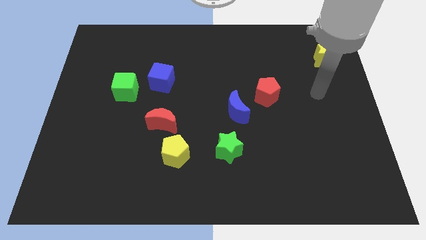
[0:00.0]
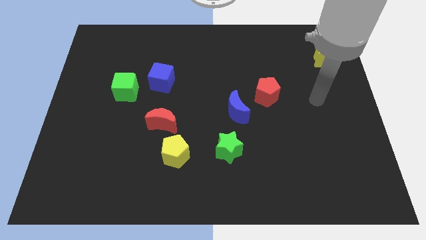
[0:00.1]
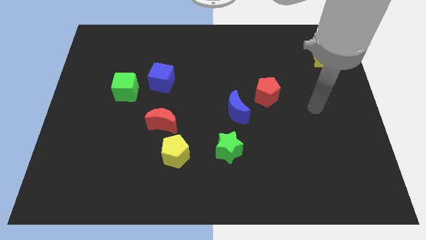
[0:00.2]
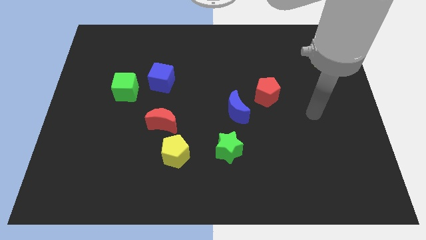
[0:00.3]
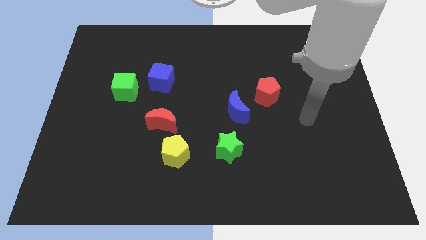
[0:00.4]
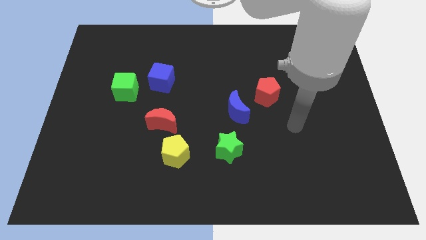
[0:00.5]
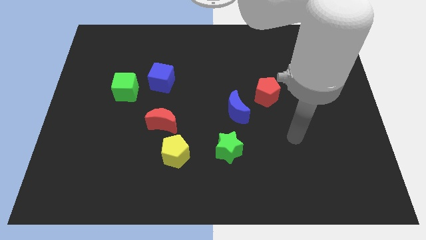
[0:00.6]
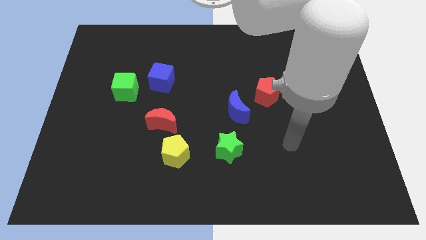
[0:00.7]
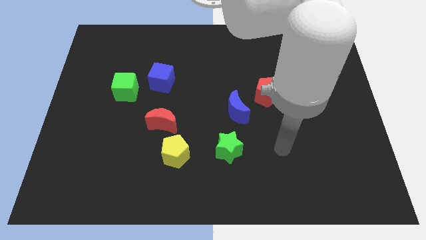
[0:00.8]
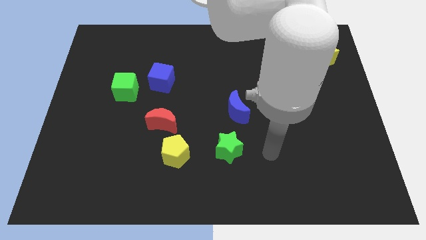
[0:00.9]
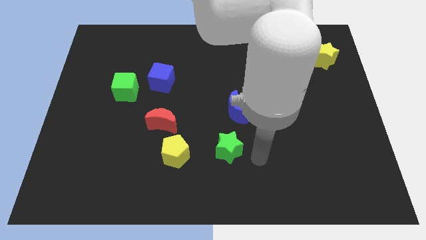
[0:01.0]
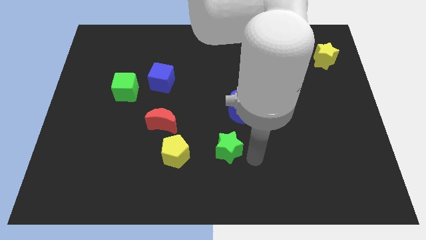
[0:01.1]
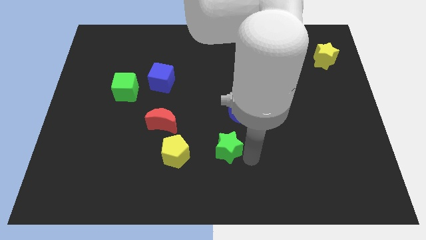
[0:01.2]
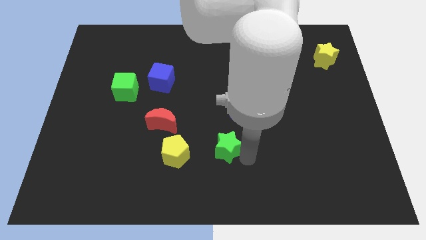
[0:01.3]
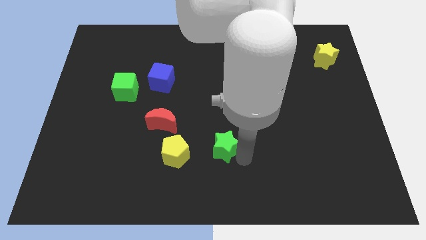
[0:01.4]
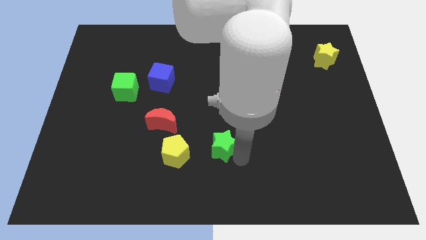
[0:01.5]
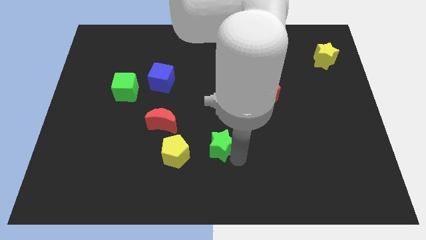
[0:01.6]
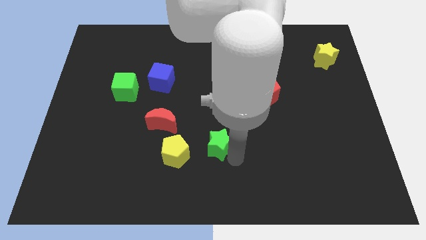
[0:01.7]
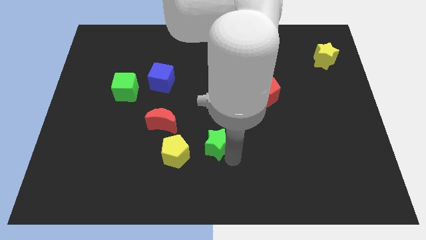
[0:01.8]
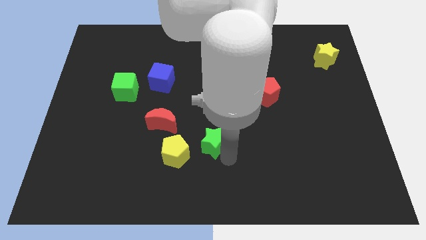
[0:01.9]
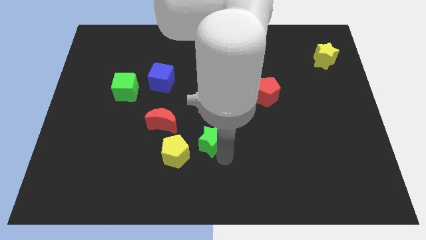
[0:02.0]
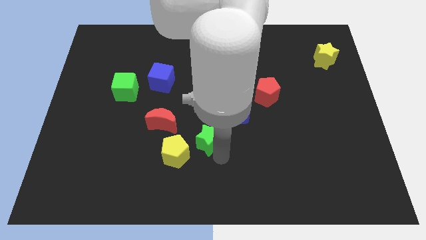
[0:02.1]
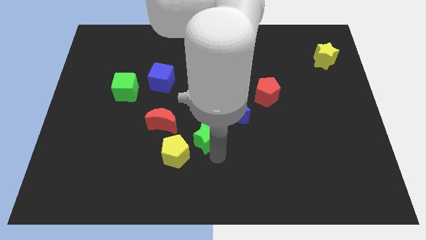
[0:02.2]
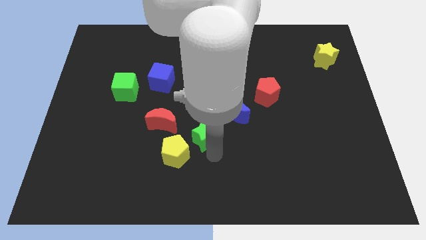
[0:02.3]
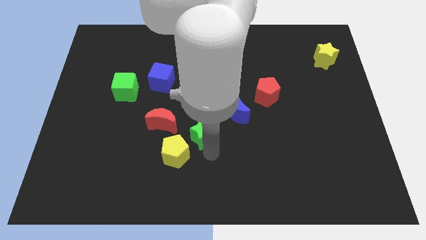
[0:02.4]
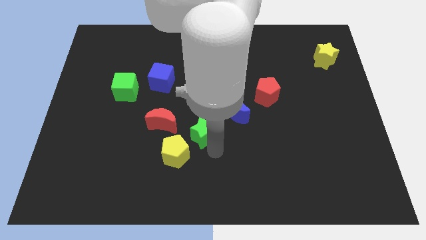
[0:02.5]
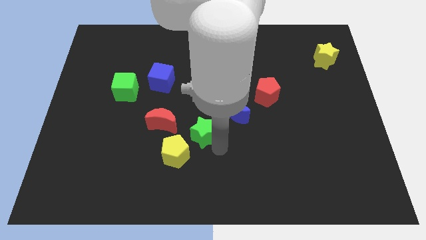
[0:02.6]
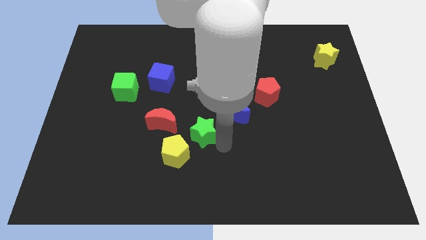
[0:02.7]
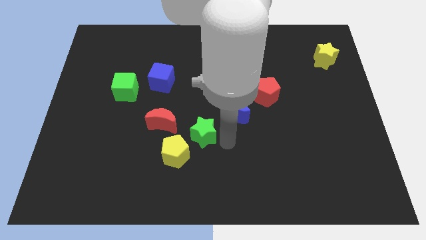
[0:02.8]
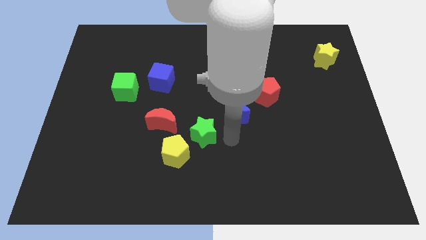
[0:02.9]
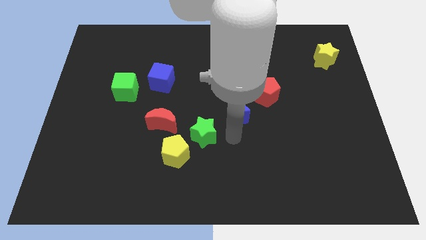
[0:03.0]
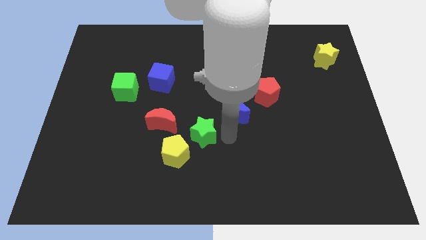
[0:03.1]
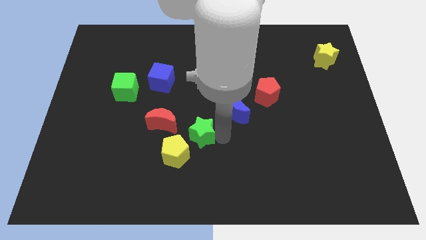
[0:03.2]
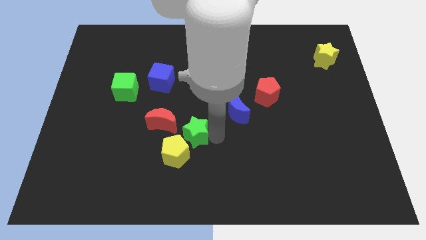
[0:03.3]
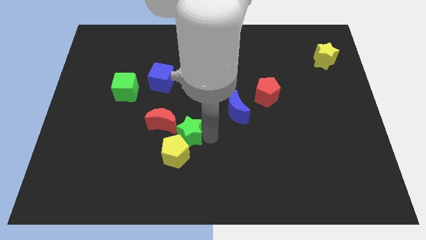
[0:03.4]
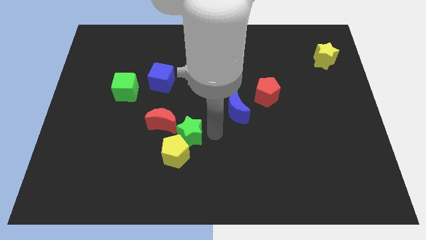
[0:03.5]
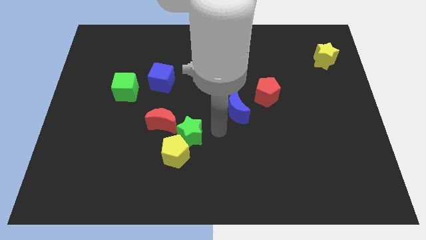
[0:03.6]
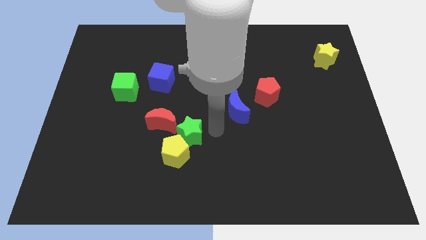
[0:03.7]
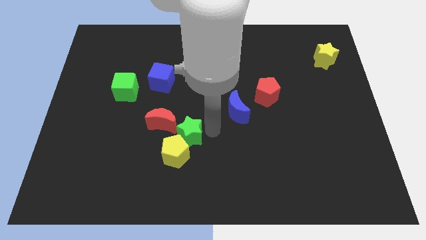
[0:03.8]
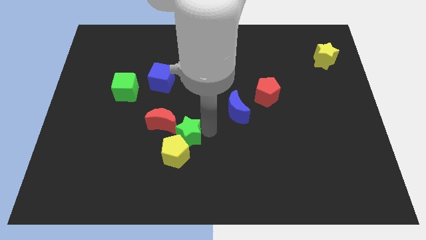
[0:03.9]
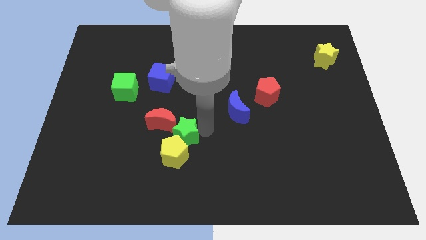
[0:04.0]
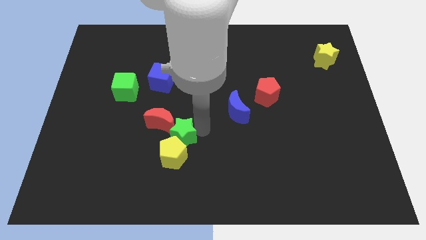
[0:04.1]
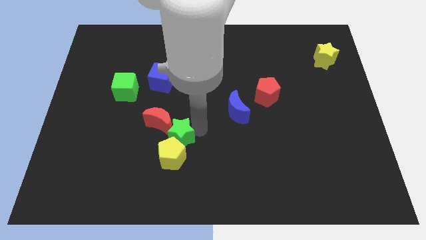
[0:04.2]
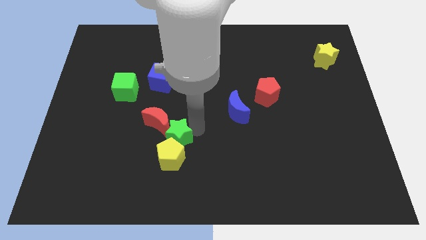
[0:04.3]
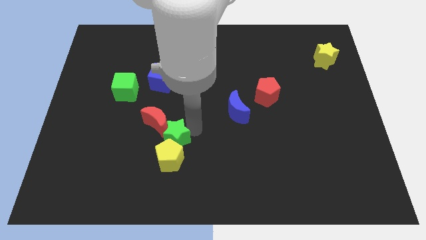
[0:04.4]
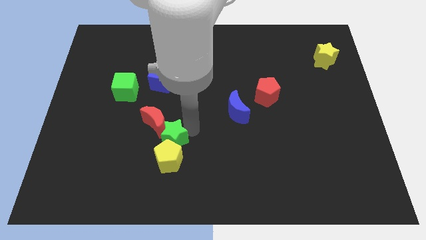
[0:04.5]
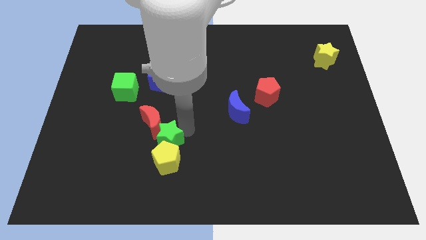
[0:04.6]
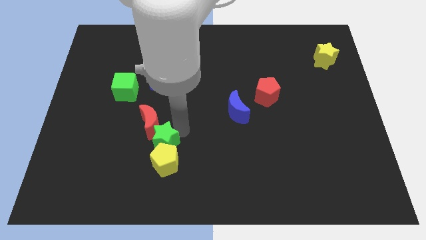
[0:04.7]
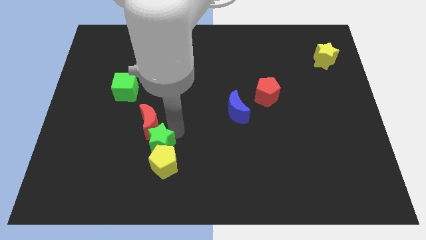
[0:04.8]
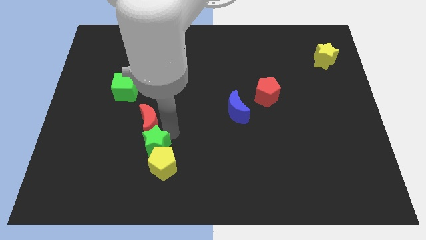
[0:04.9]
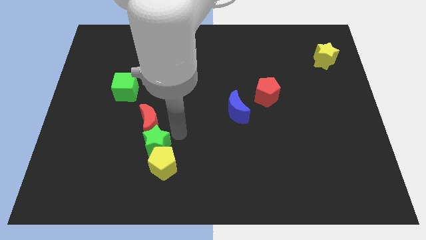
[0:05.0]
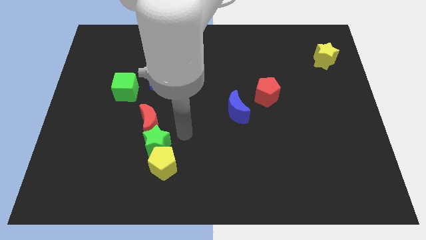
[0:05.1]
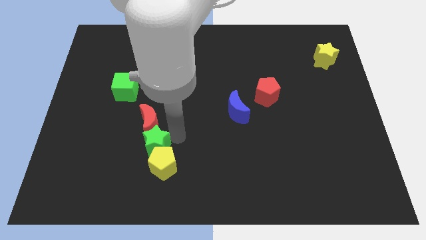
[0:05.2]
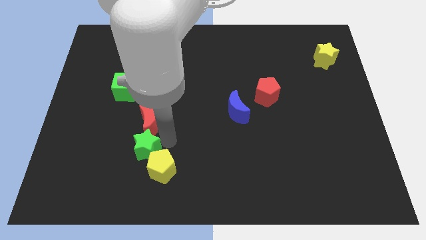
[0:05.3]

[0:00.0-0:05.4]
move the green star to the left of the yellow pentagon

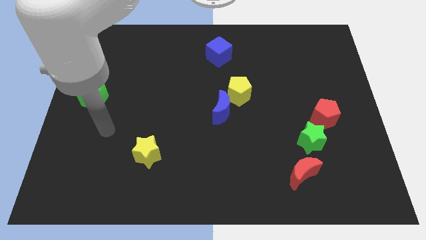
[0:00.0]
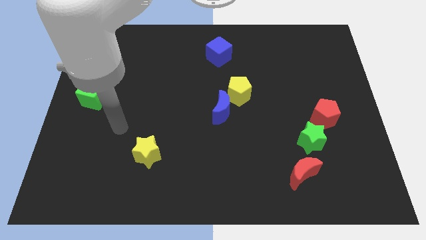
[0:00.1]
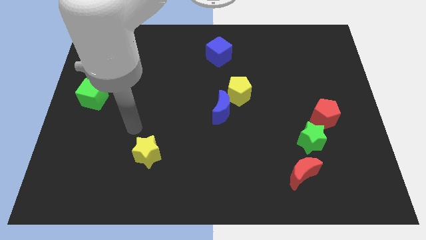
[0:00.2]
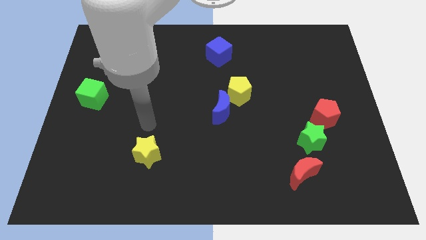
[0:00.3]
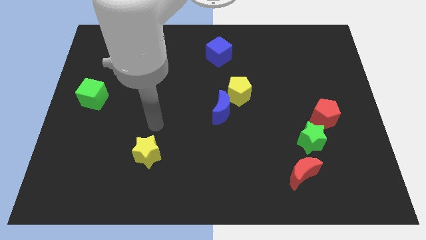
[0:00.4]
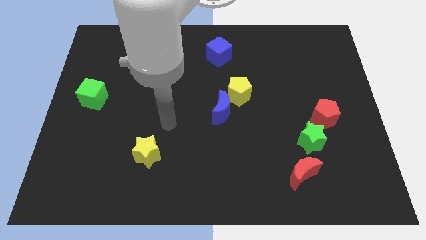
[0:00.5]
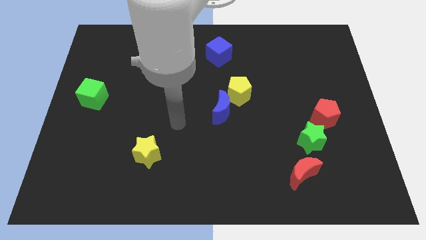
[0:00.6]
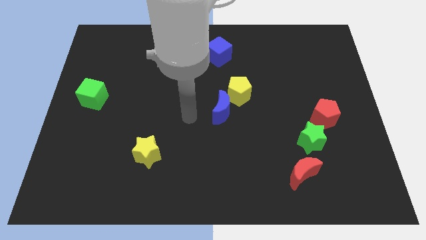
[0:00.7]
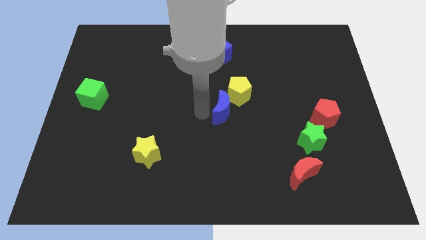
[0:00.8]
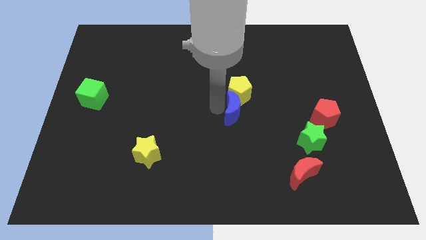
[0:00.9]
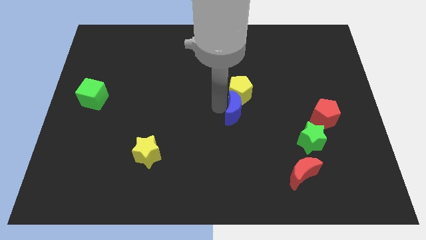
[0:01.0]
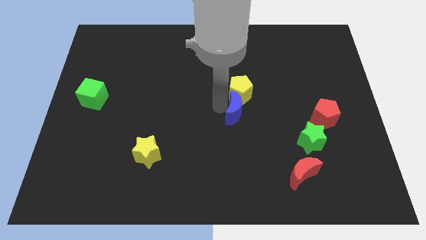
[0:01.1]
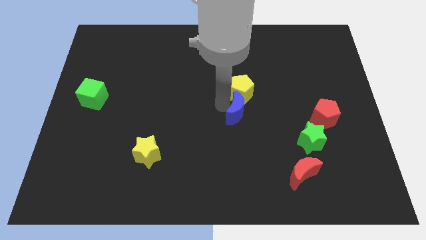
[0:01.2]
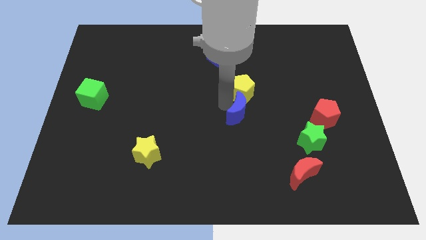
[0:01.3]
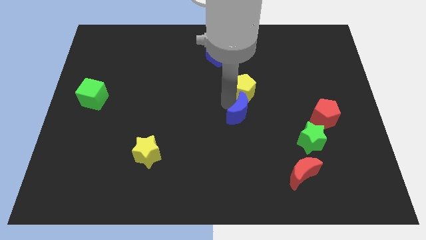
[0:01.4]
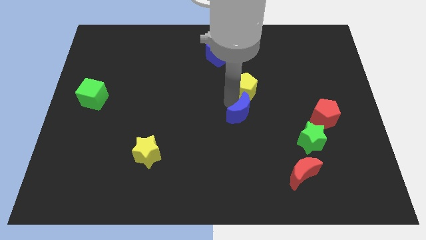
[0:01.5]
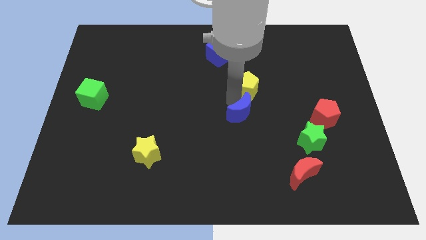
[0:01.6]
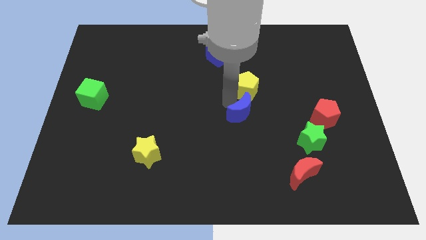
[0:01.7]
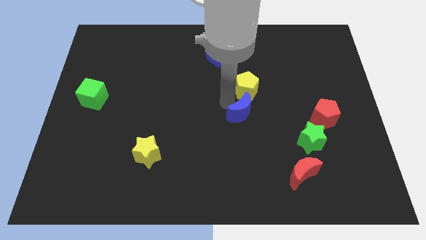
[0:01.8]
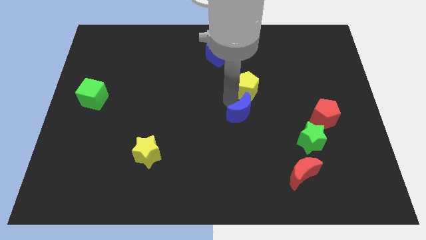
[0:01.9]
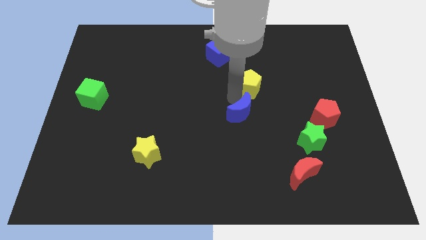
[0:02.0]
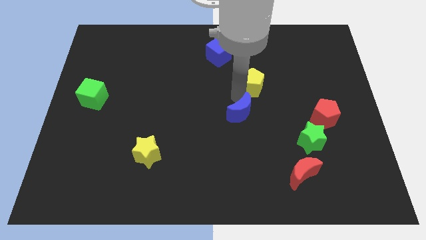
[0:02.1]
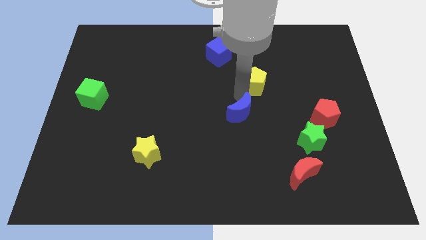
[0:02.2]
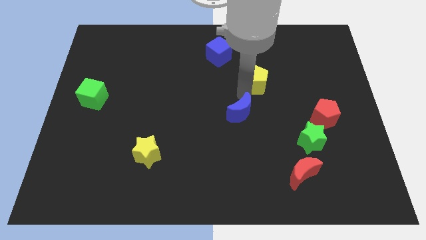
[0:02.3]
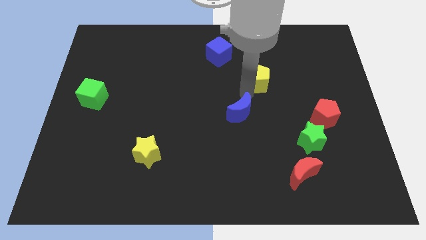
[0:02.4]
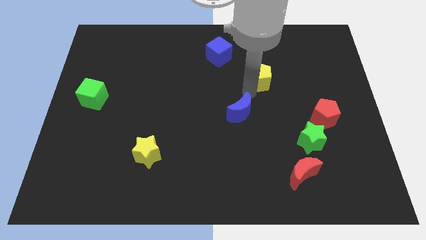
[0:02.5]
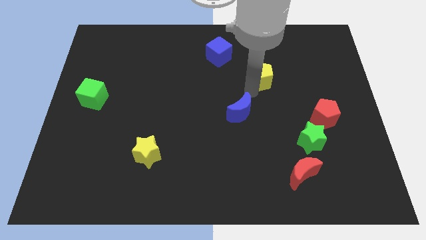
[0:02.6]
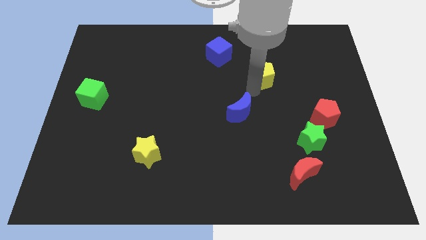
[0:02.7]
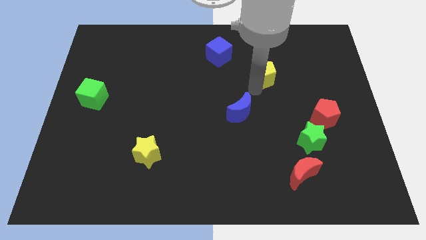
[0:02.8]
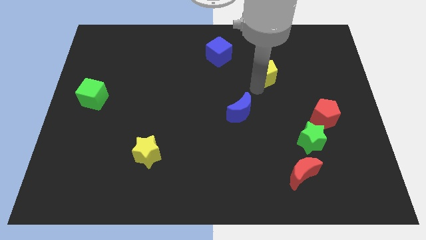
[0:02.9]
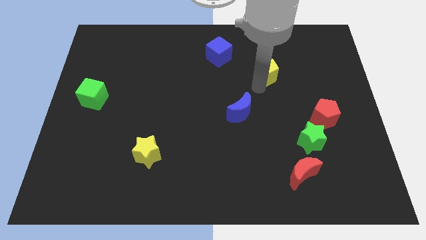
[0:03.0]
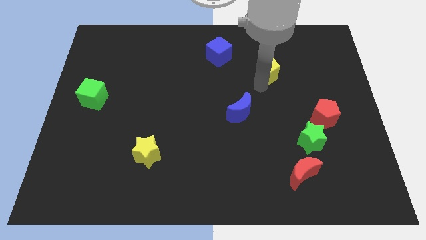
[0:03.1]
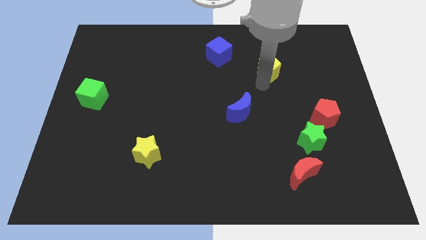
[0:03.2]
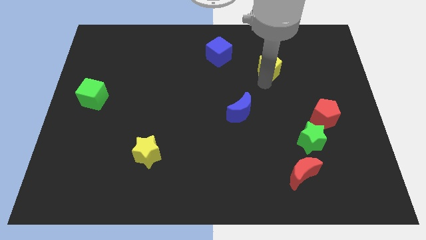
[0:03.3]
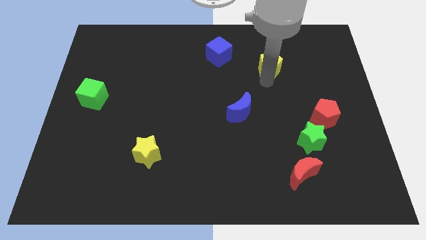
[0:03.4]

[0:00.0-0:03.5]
put the yellow pentagon to the right of the blue cube
